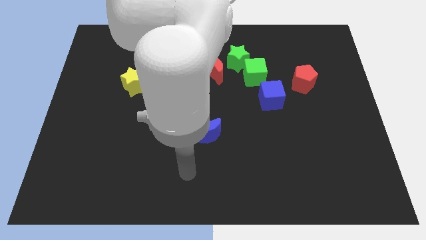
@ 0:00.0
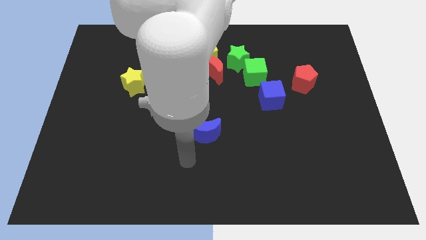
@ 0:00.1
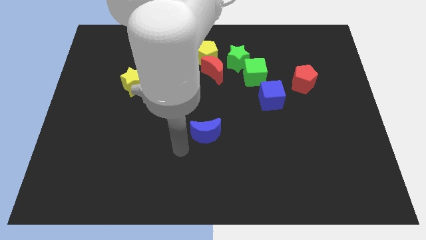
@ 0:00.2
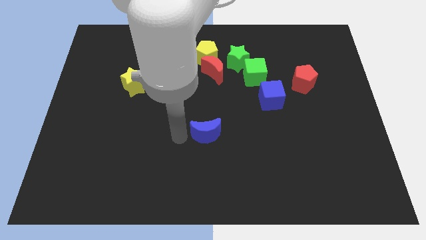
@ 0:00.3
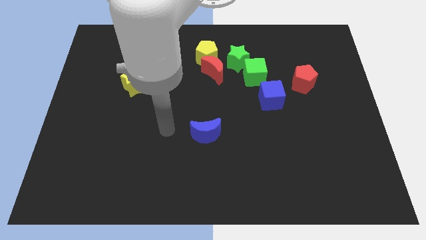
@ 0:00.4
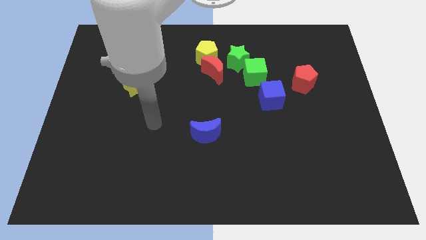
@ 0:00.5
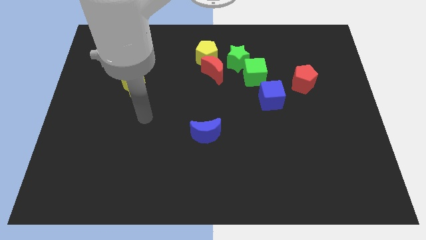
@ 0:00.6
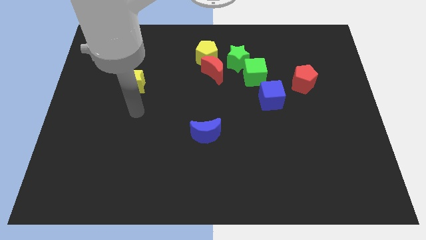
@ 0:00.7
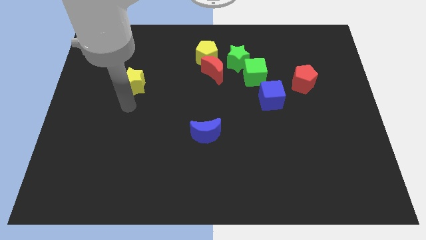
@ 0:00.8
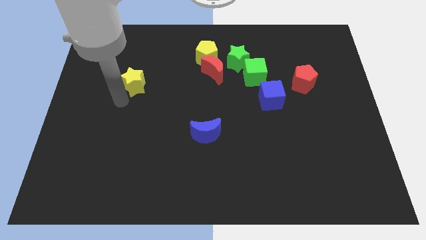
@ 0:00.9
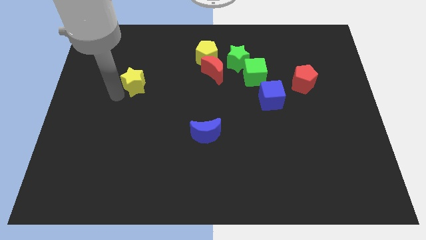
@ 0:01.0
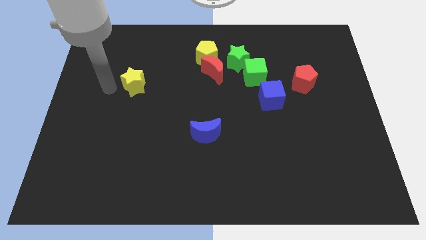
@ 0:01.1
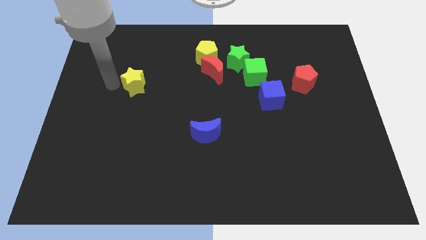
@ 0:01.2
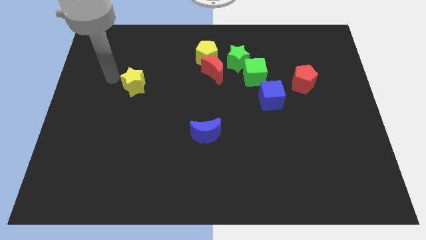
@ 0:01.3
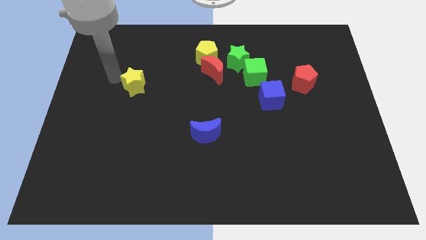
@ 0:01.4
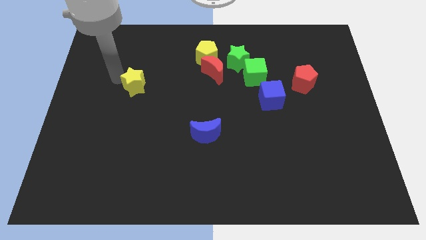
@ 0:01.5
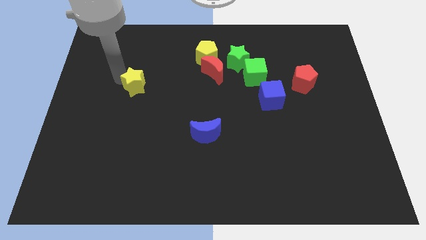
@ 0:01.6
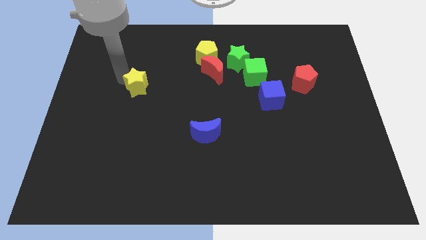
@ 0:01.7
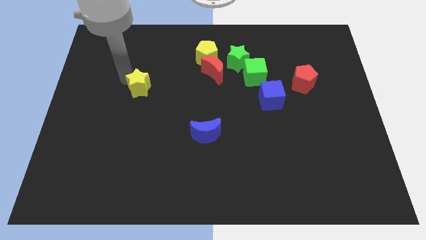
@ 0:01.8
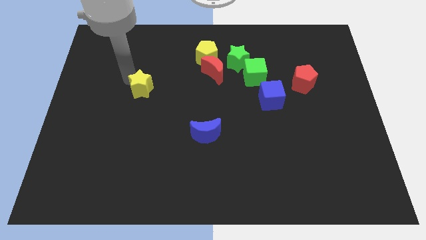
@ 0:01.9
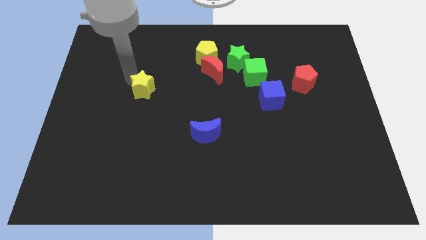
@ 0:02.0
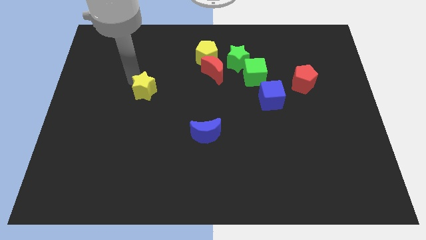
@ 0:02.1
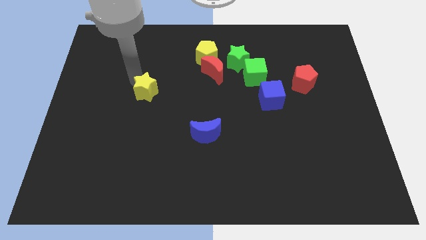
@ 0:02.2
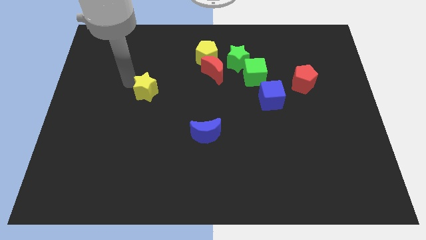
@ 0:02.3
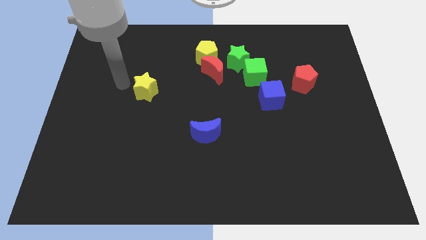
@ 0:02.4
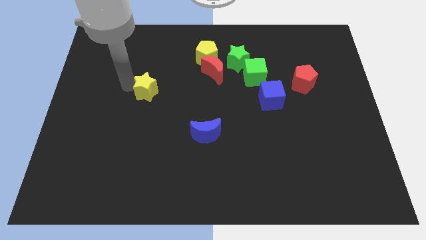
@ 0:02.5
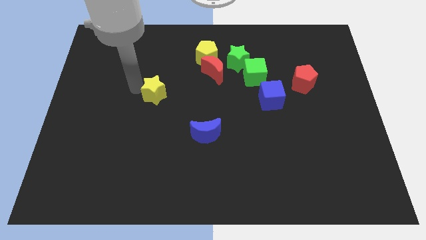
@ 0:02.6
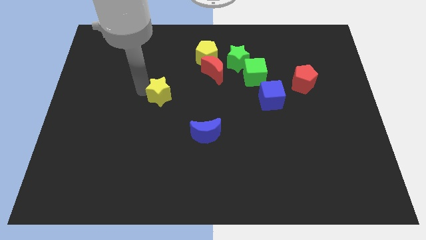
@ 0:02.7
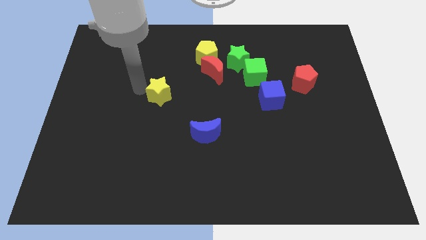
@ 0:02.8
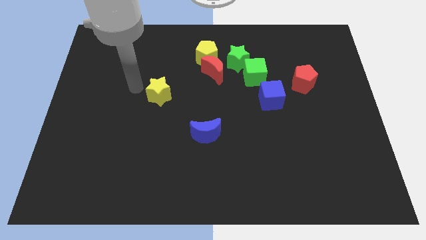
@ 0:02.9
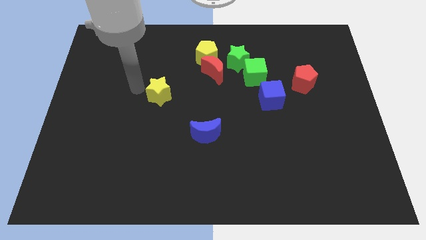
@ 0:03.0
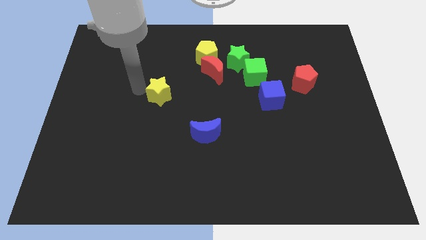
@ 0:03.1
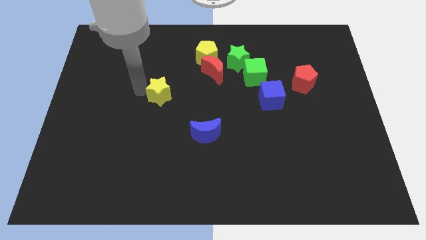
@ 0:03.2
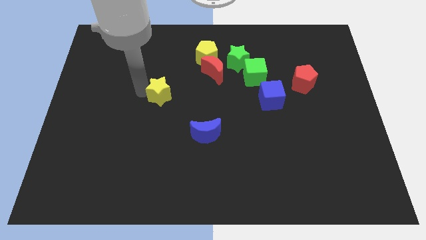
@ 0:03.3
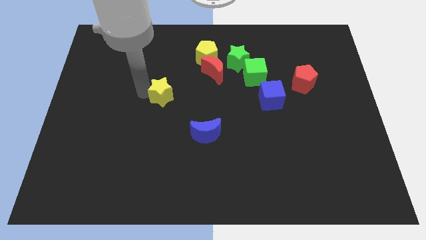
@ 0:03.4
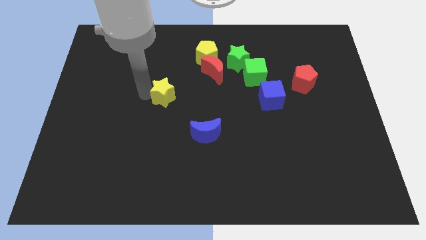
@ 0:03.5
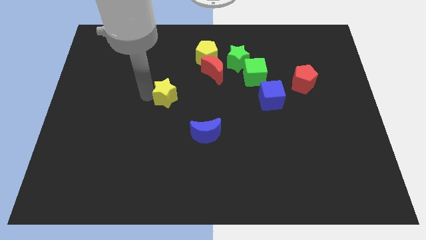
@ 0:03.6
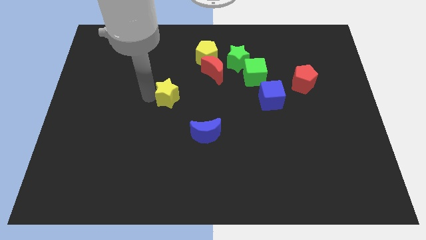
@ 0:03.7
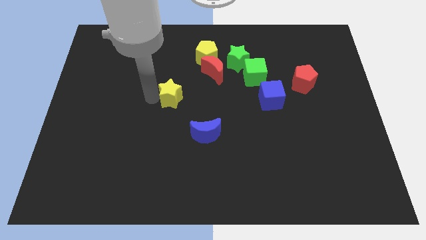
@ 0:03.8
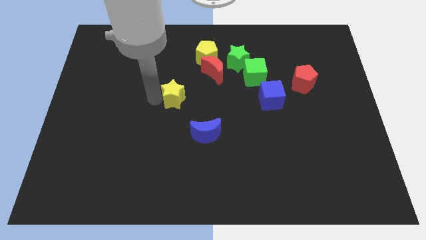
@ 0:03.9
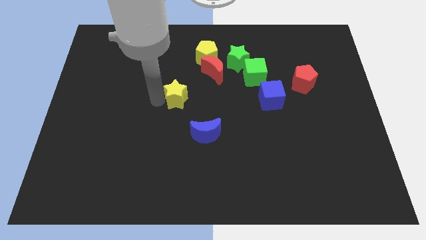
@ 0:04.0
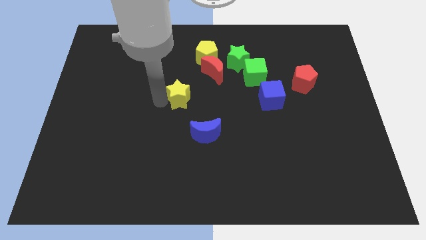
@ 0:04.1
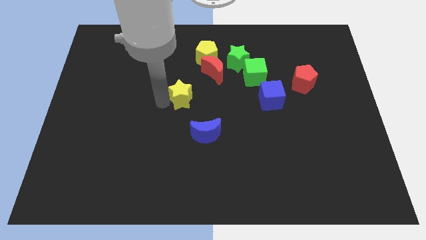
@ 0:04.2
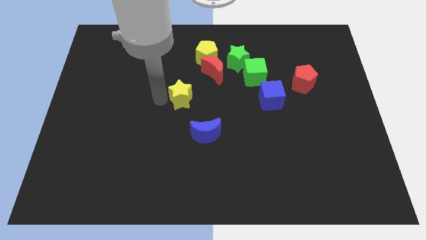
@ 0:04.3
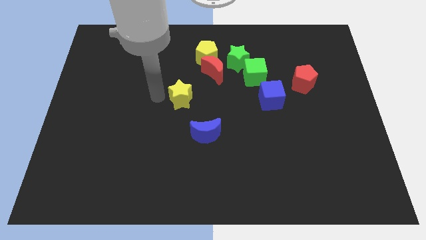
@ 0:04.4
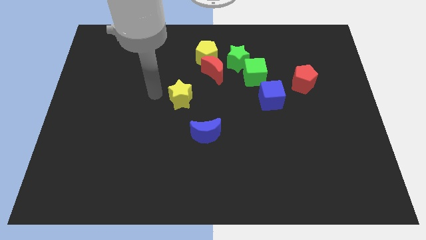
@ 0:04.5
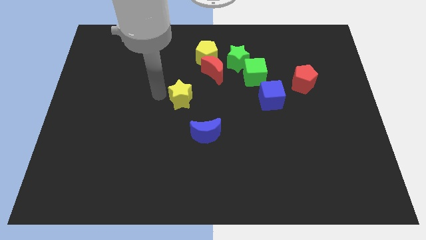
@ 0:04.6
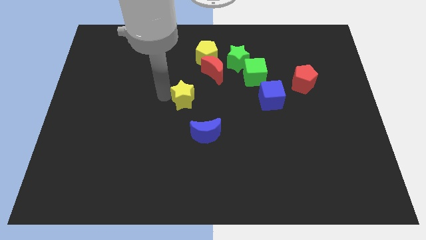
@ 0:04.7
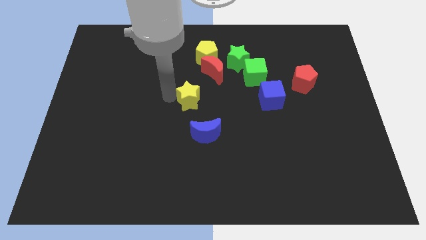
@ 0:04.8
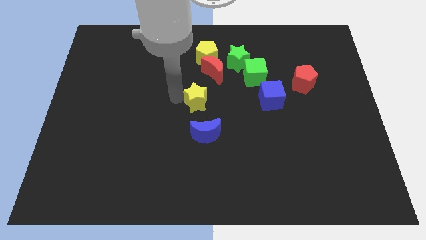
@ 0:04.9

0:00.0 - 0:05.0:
push the yellow star below the red moon

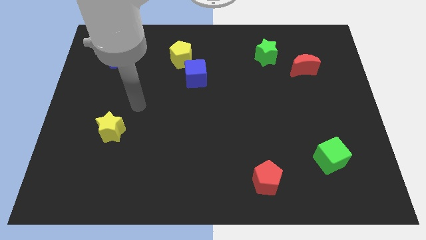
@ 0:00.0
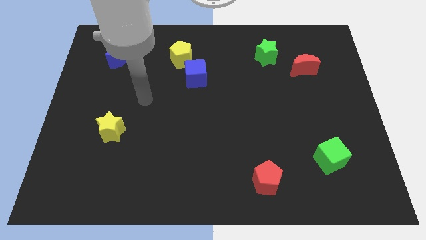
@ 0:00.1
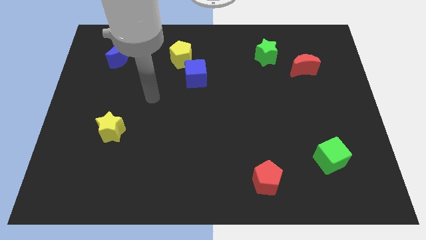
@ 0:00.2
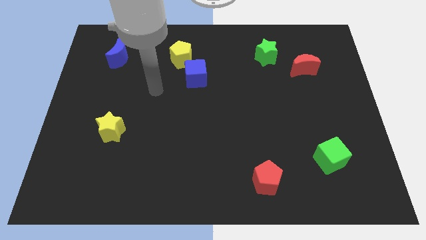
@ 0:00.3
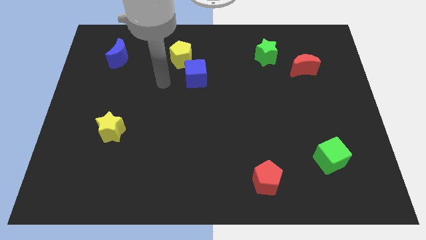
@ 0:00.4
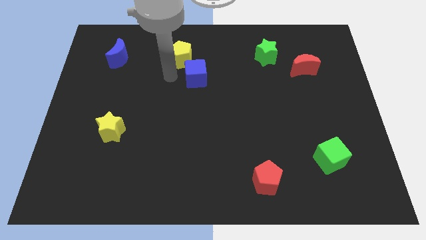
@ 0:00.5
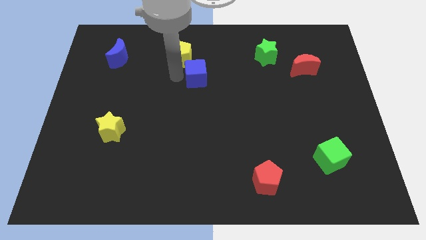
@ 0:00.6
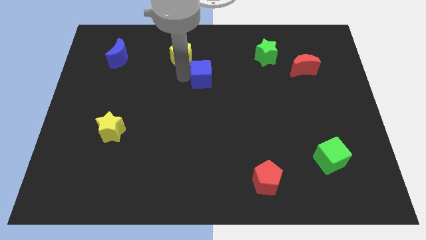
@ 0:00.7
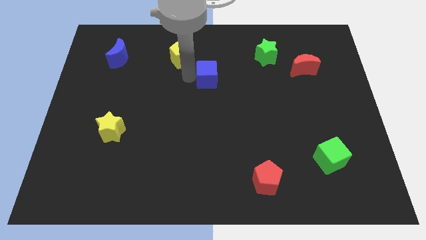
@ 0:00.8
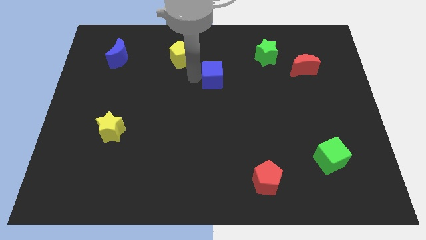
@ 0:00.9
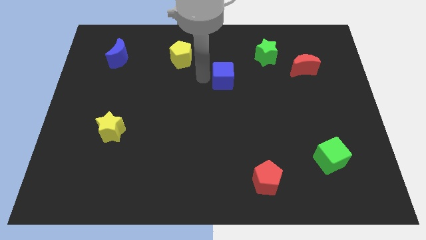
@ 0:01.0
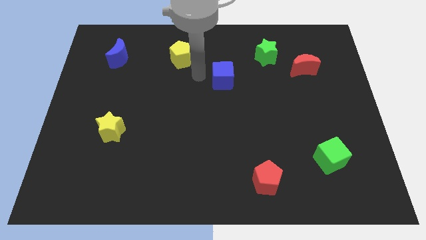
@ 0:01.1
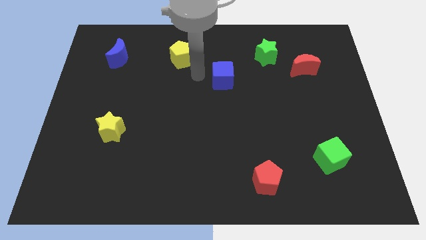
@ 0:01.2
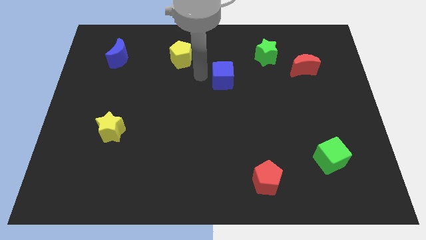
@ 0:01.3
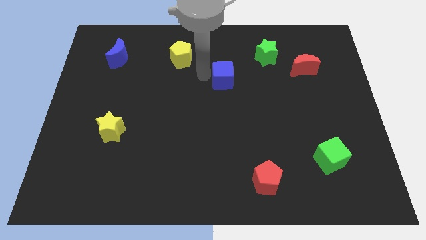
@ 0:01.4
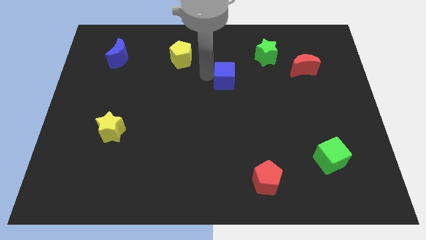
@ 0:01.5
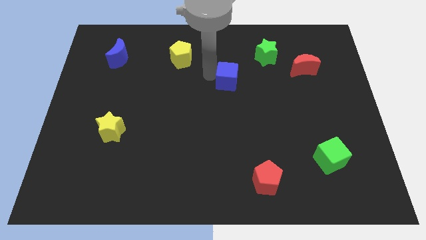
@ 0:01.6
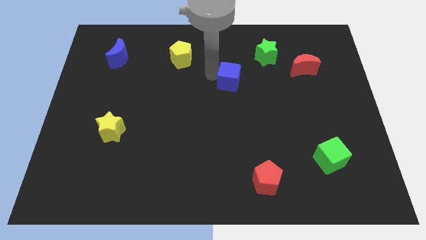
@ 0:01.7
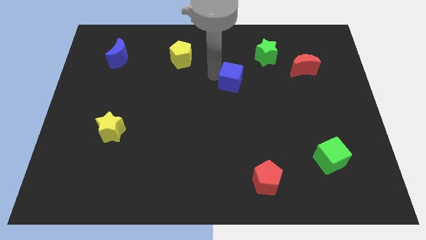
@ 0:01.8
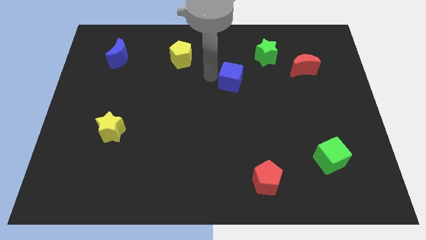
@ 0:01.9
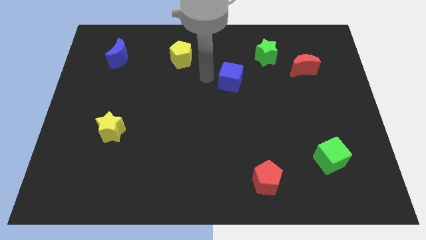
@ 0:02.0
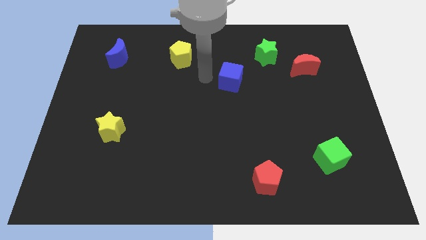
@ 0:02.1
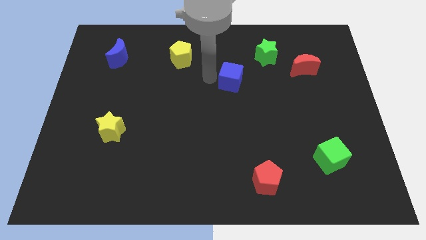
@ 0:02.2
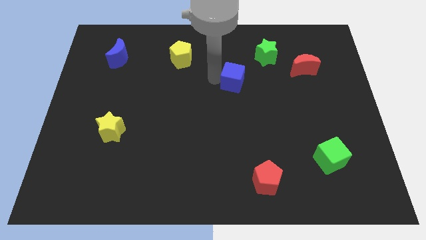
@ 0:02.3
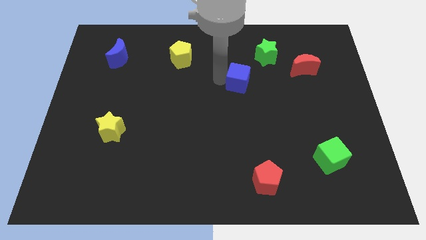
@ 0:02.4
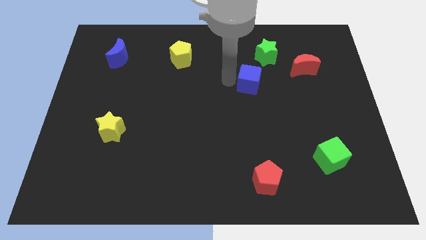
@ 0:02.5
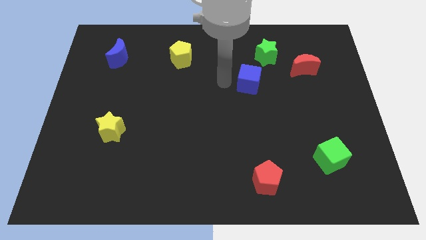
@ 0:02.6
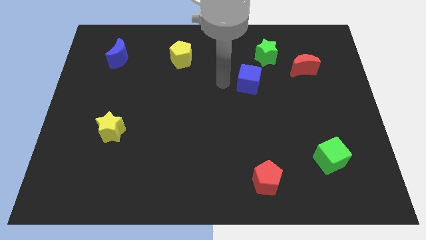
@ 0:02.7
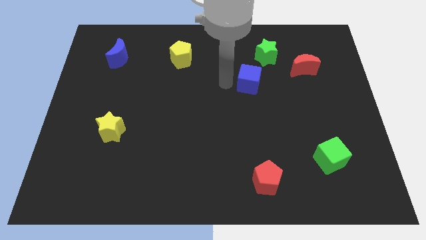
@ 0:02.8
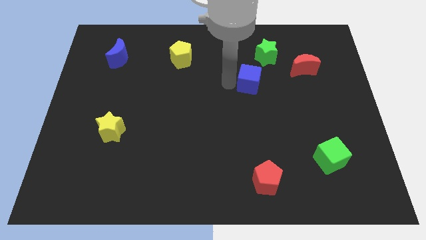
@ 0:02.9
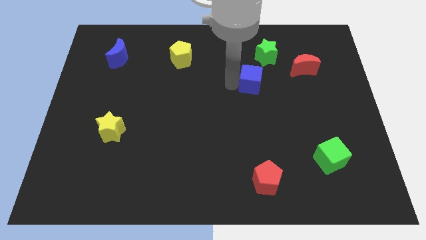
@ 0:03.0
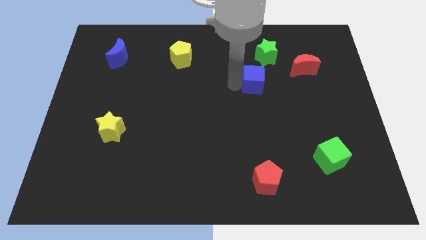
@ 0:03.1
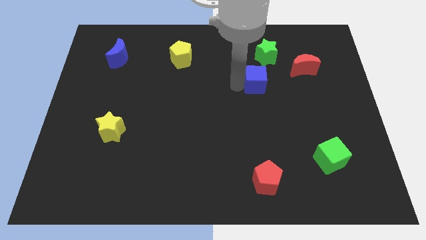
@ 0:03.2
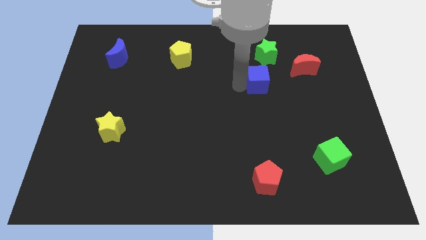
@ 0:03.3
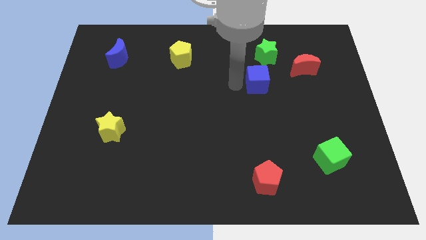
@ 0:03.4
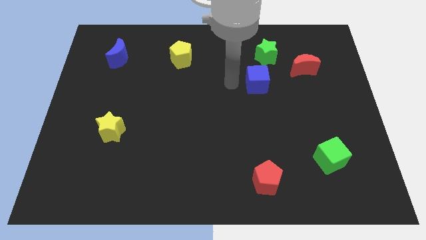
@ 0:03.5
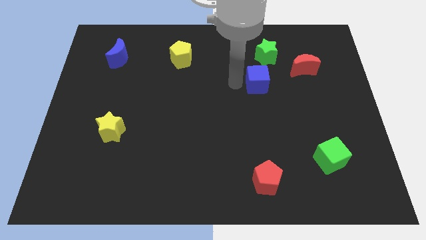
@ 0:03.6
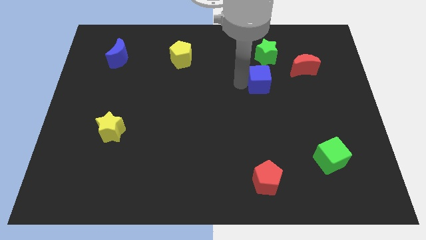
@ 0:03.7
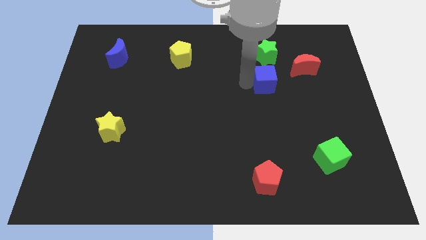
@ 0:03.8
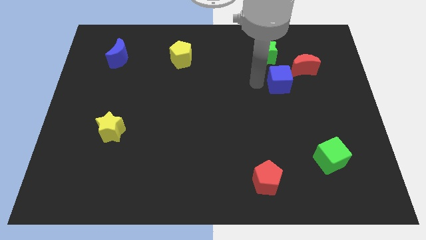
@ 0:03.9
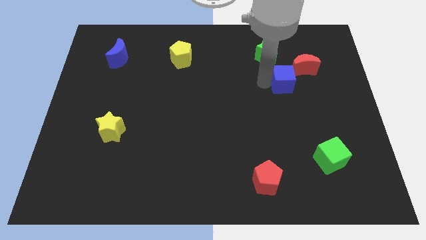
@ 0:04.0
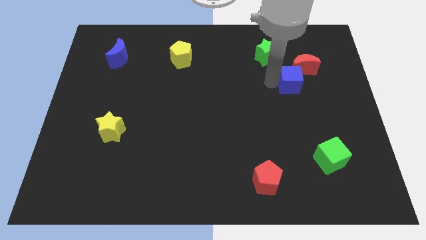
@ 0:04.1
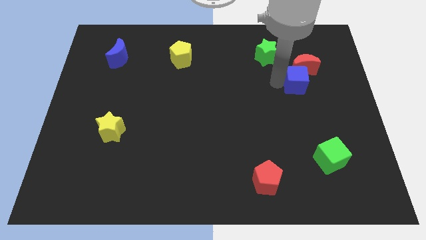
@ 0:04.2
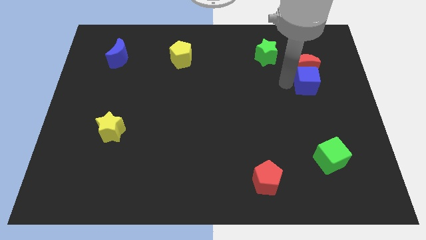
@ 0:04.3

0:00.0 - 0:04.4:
move the blue cube diagonally down and to the right of the red moon
